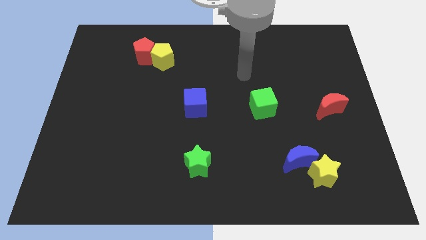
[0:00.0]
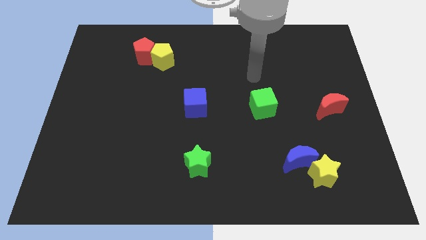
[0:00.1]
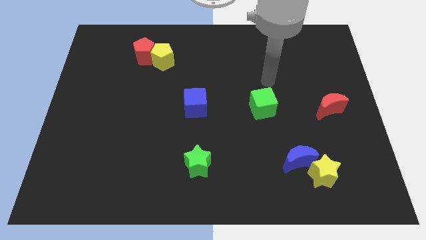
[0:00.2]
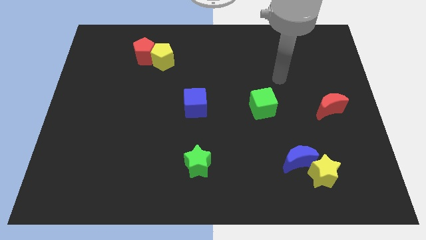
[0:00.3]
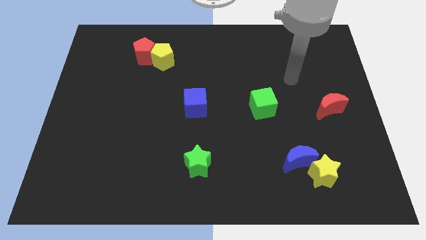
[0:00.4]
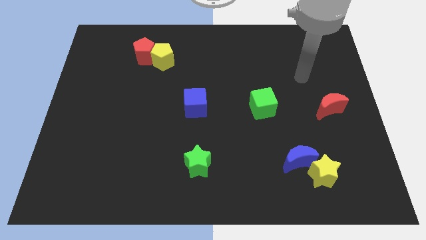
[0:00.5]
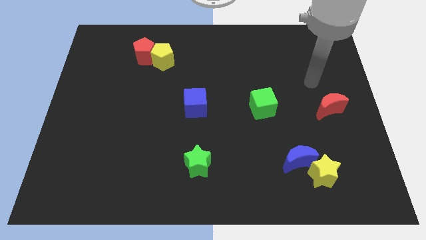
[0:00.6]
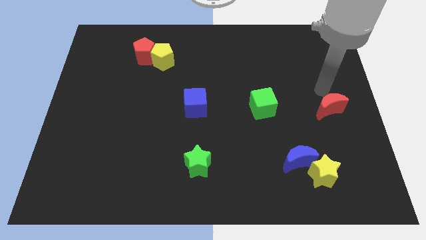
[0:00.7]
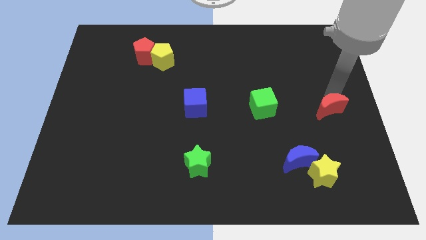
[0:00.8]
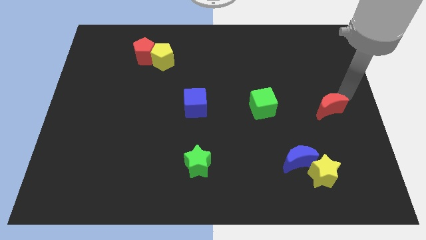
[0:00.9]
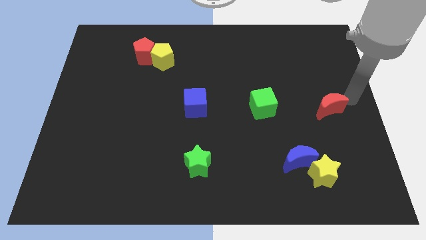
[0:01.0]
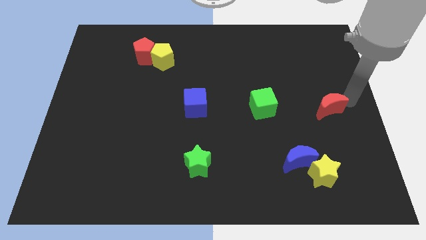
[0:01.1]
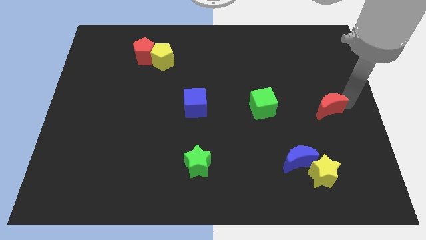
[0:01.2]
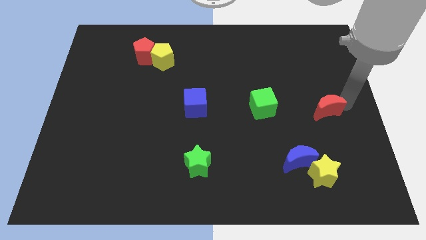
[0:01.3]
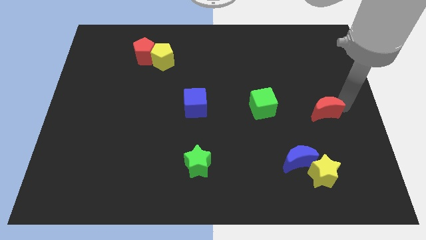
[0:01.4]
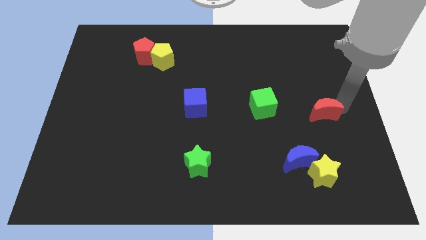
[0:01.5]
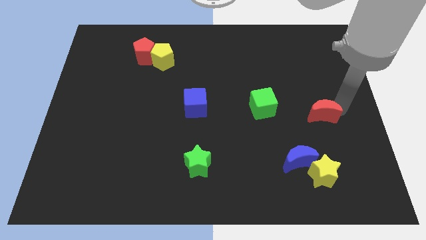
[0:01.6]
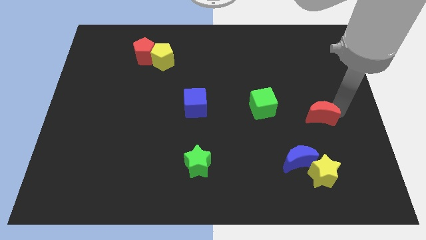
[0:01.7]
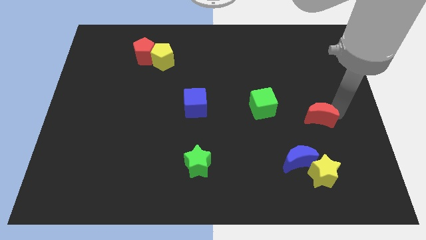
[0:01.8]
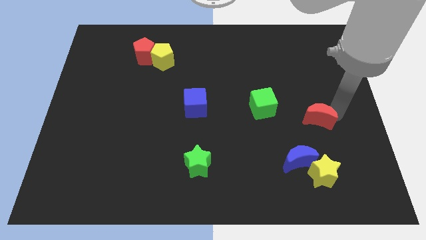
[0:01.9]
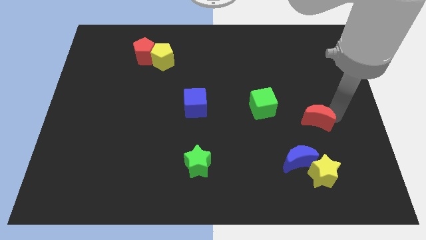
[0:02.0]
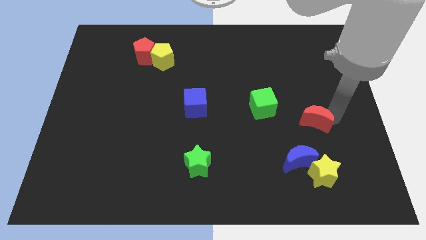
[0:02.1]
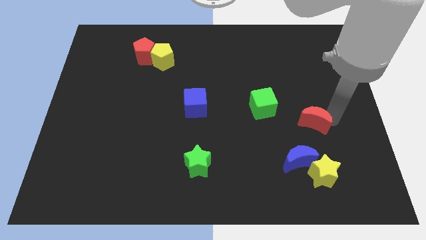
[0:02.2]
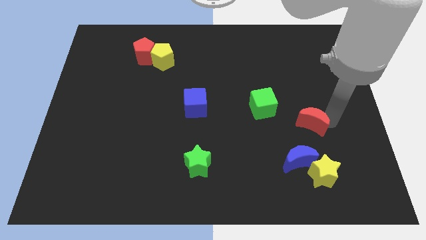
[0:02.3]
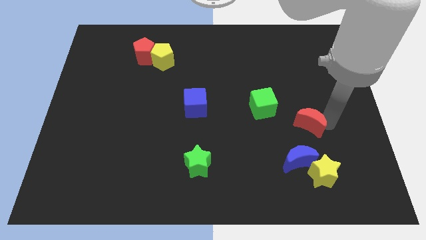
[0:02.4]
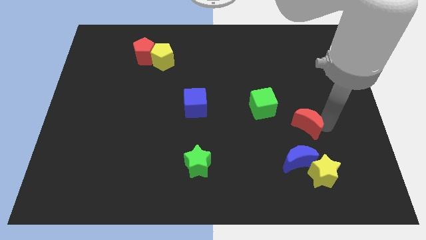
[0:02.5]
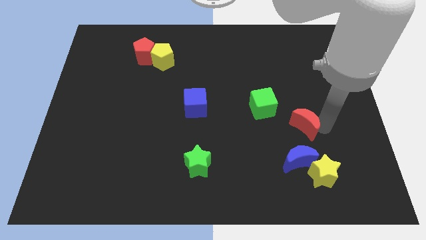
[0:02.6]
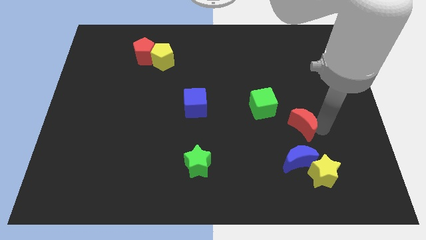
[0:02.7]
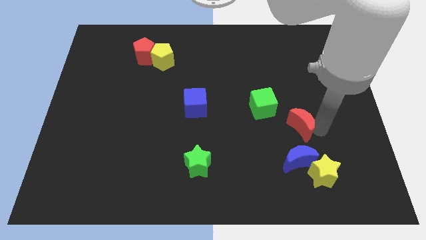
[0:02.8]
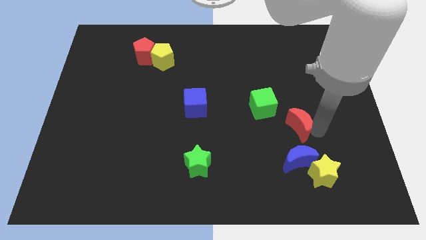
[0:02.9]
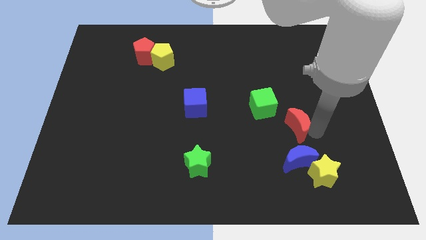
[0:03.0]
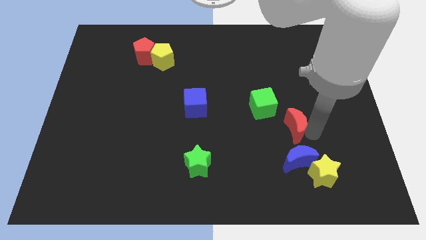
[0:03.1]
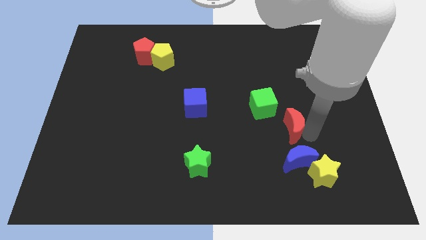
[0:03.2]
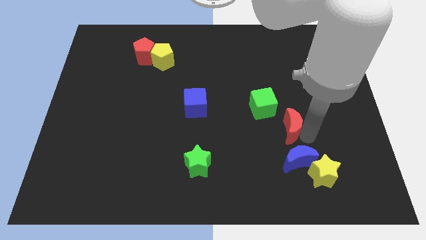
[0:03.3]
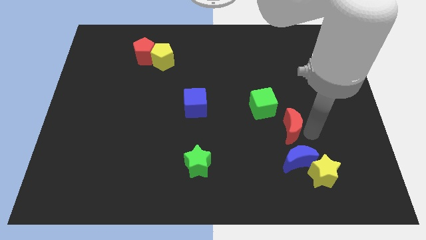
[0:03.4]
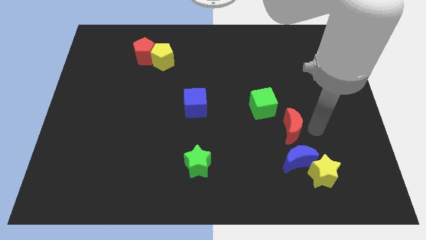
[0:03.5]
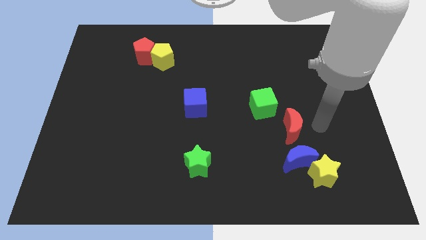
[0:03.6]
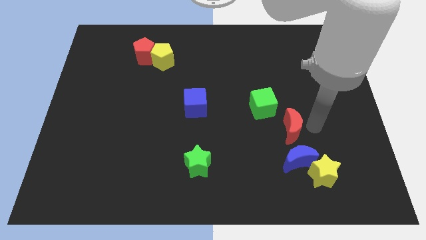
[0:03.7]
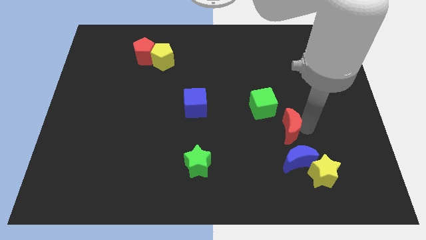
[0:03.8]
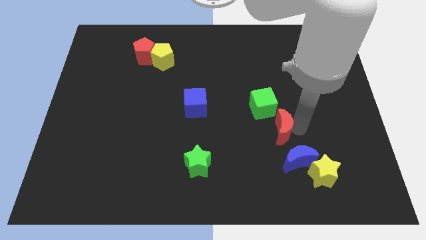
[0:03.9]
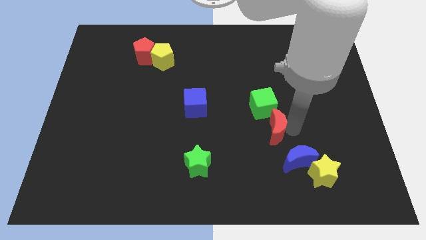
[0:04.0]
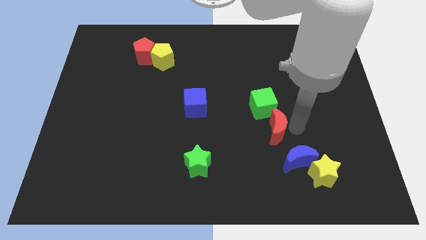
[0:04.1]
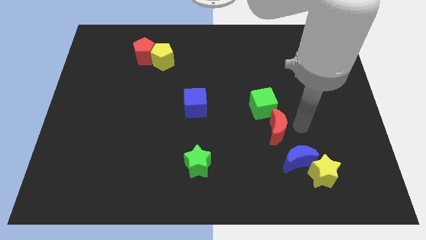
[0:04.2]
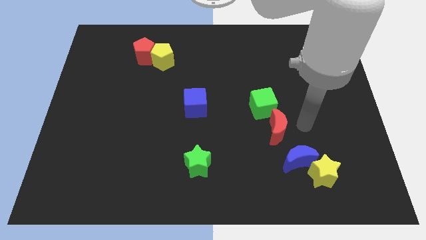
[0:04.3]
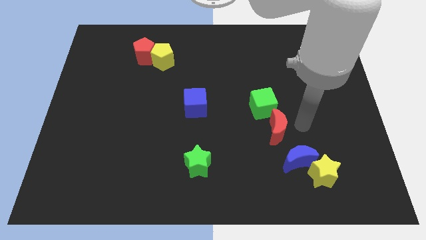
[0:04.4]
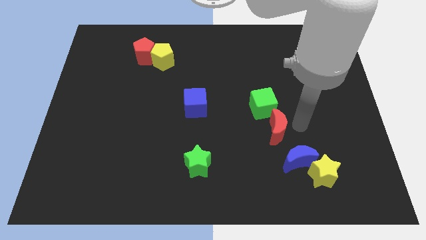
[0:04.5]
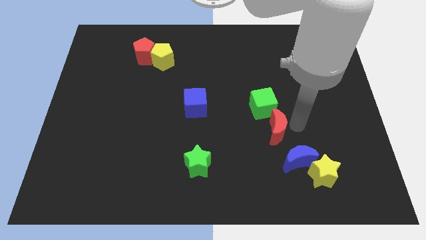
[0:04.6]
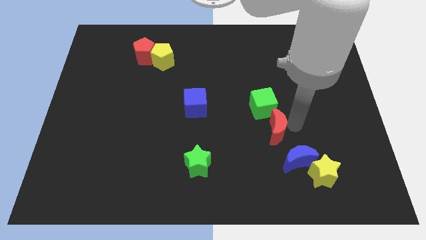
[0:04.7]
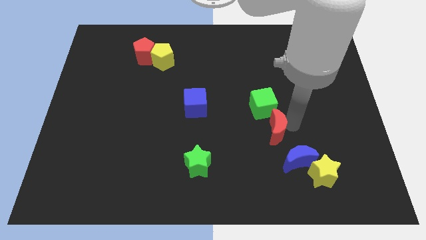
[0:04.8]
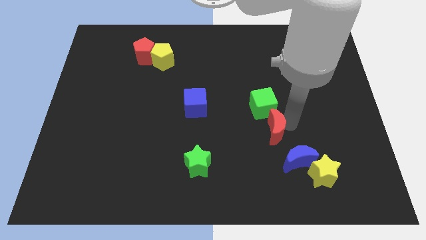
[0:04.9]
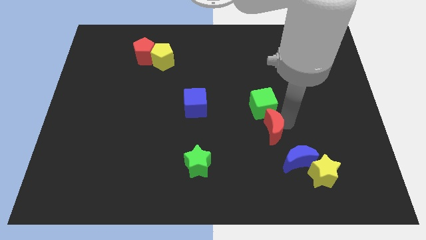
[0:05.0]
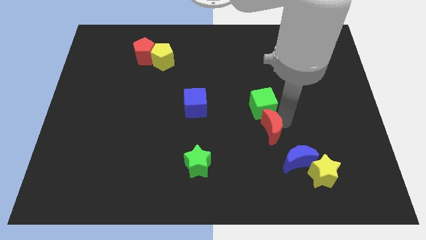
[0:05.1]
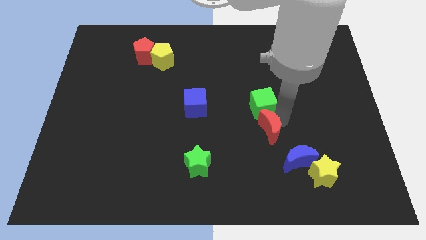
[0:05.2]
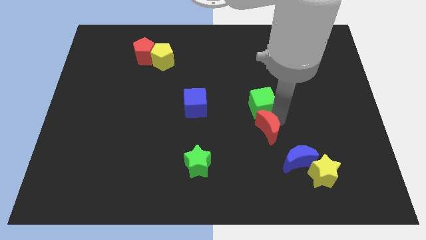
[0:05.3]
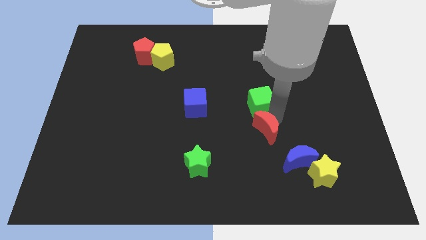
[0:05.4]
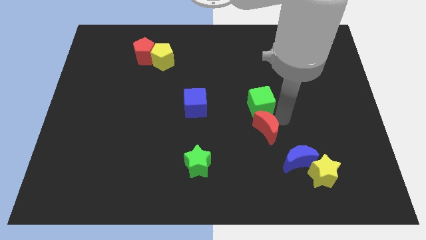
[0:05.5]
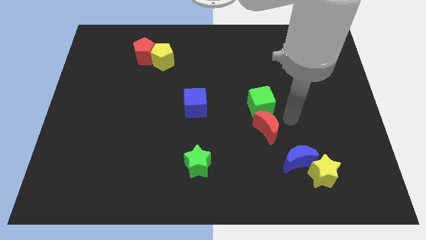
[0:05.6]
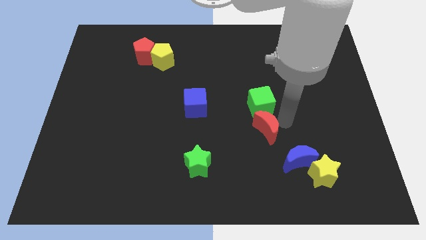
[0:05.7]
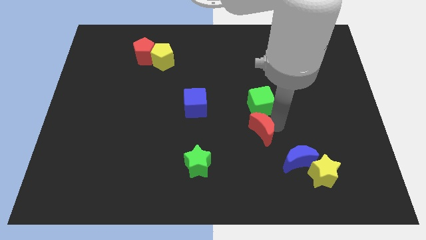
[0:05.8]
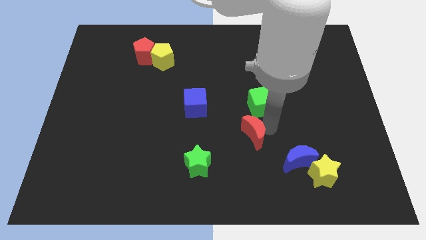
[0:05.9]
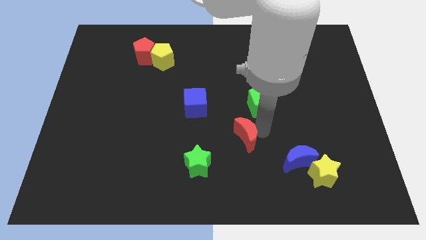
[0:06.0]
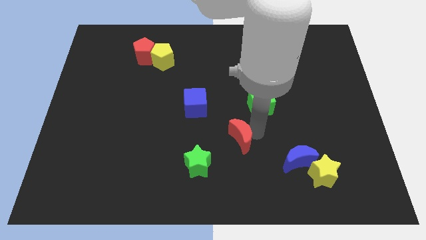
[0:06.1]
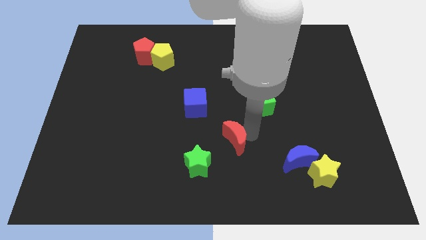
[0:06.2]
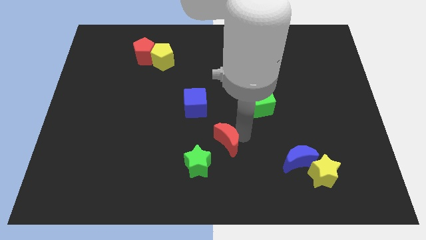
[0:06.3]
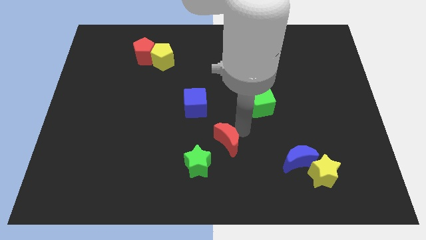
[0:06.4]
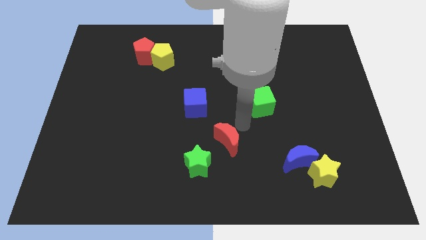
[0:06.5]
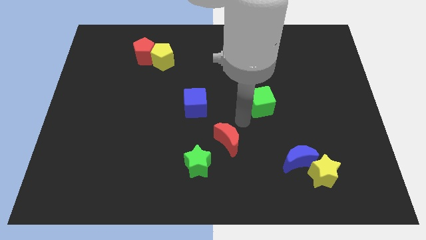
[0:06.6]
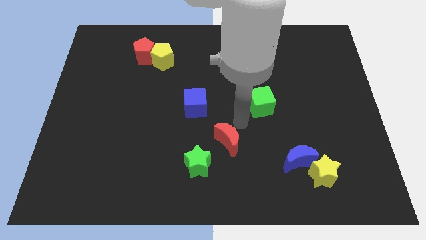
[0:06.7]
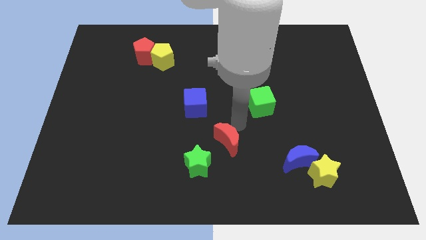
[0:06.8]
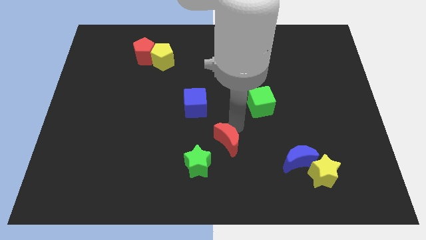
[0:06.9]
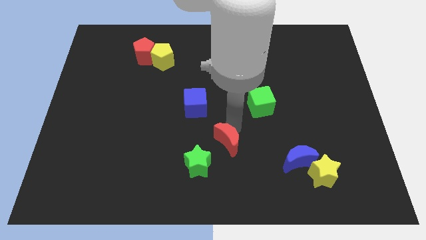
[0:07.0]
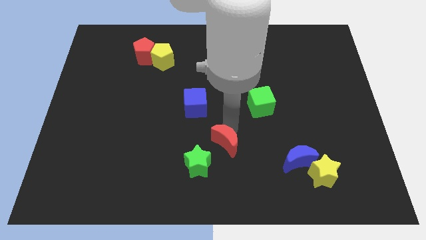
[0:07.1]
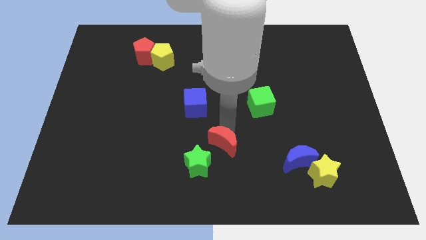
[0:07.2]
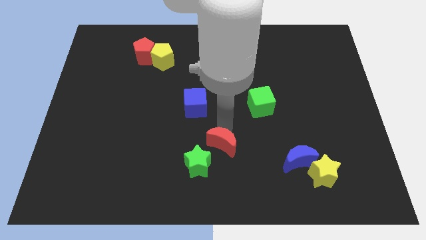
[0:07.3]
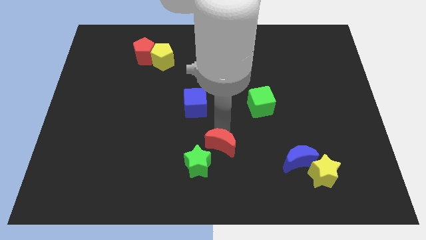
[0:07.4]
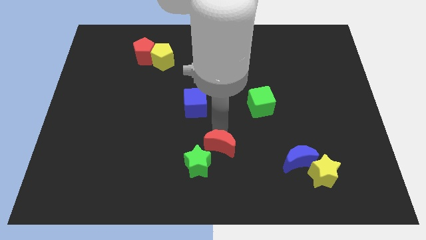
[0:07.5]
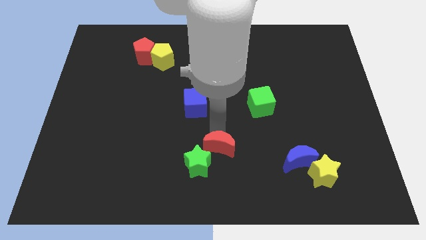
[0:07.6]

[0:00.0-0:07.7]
slide the red moon next to the green star

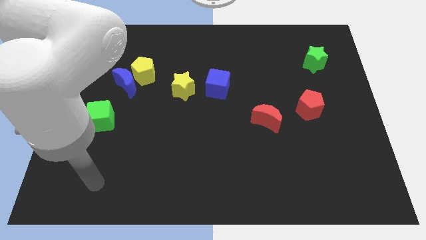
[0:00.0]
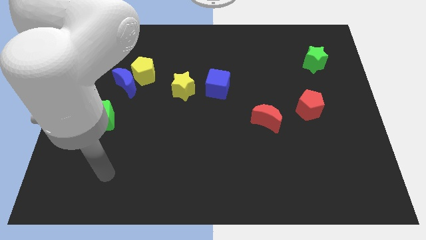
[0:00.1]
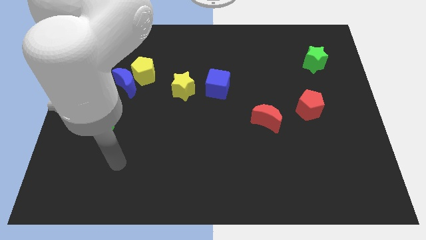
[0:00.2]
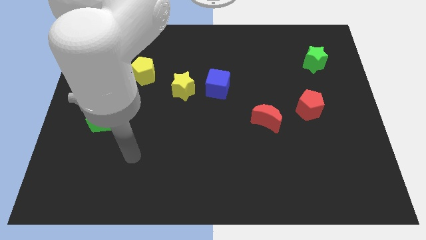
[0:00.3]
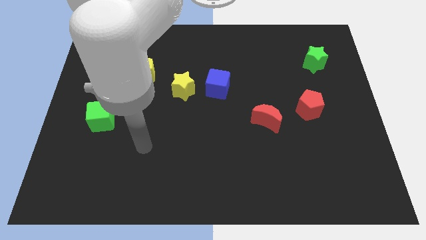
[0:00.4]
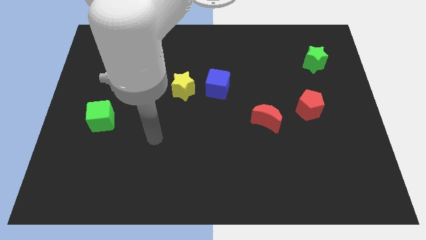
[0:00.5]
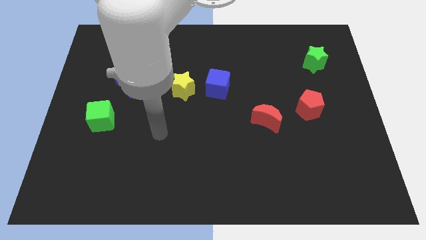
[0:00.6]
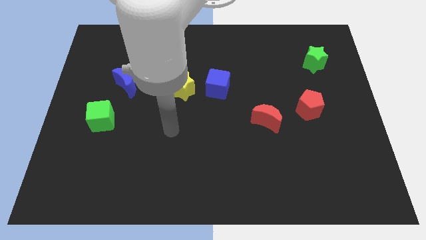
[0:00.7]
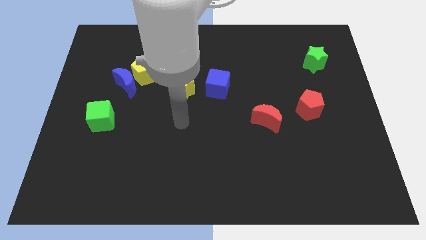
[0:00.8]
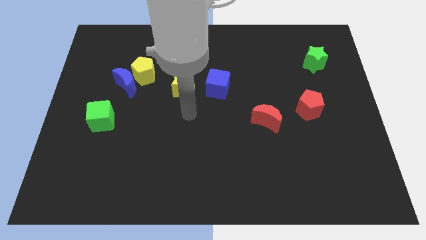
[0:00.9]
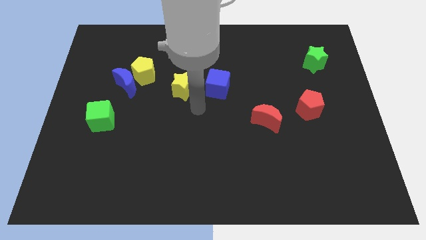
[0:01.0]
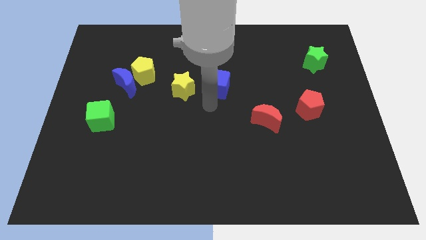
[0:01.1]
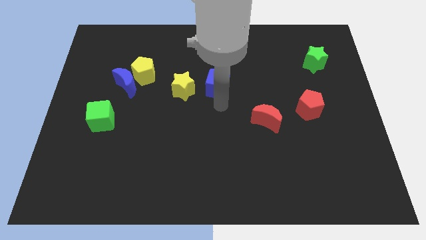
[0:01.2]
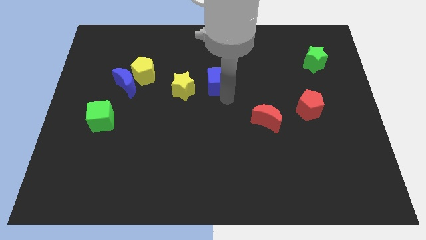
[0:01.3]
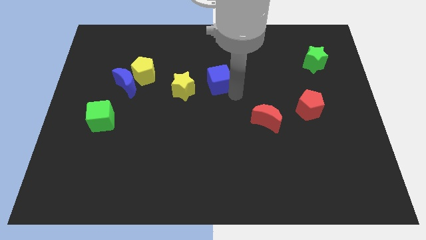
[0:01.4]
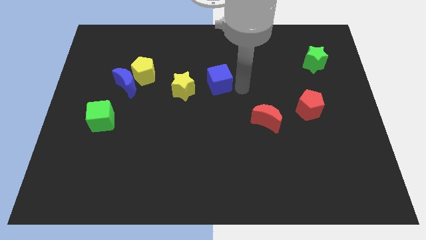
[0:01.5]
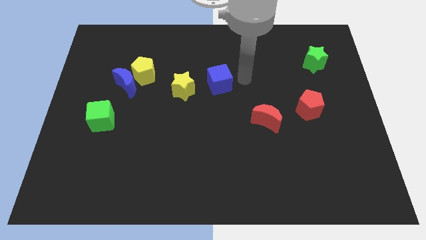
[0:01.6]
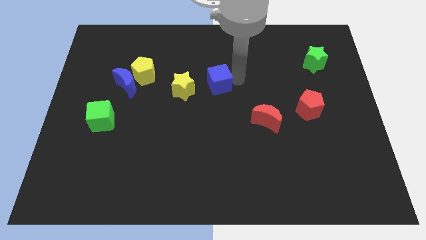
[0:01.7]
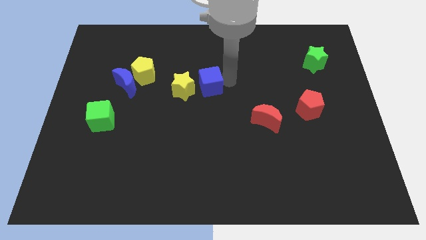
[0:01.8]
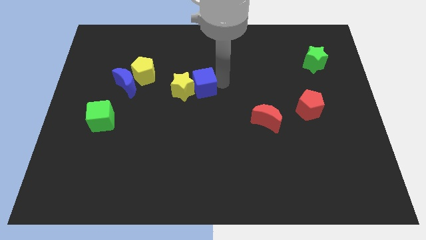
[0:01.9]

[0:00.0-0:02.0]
slide the blue cube to the yellow star
